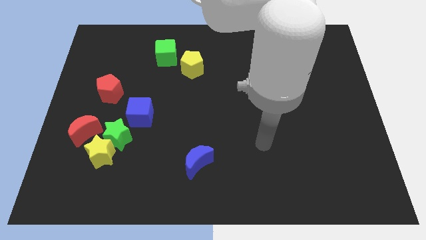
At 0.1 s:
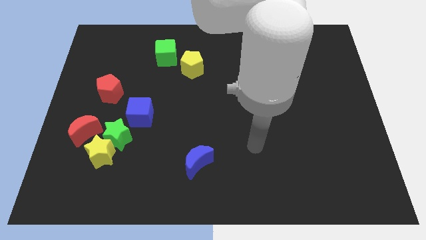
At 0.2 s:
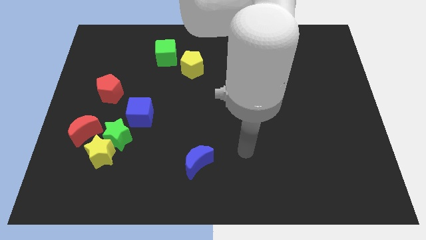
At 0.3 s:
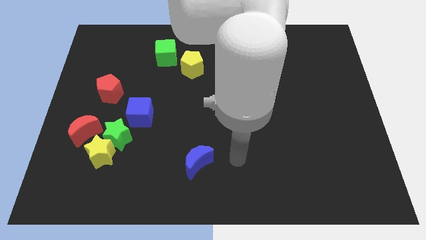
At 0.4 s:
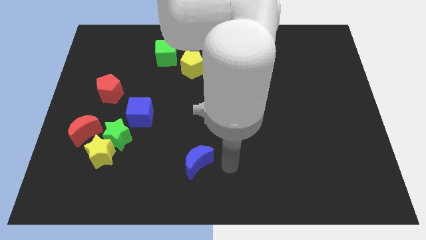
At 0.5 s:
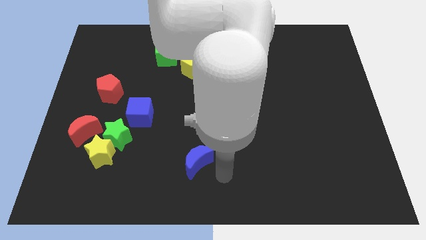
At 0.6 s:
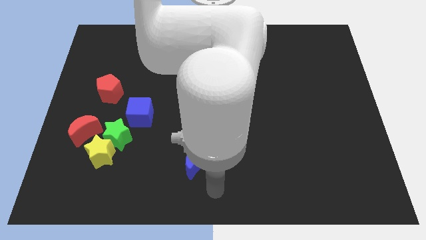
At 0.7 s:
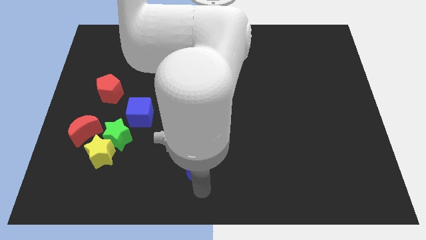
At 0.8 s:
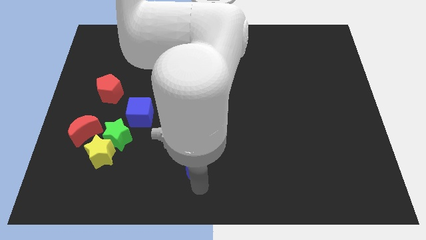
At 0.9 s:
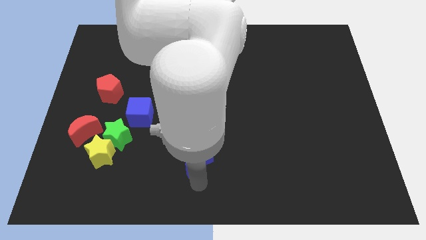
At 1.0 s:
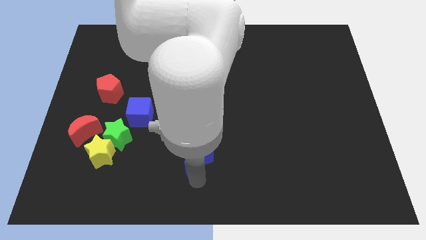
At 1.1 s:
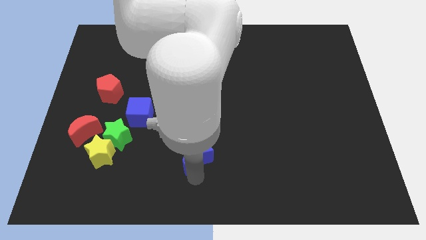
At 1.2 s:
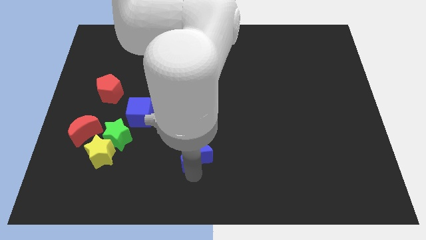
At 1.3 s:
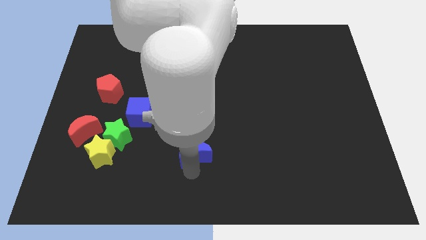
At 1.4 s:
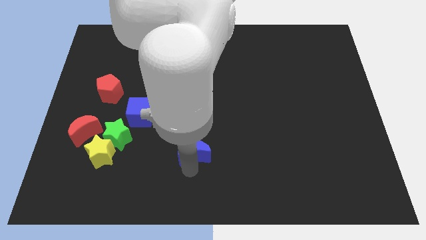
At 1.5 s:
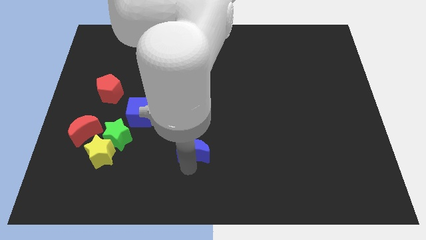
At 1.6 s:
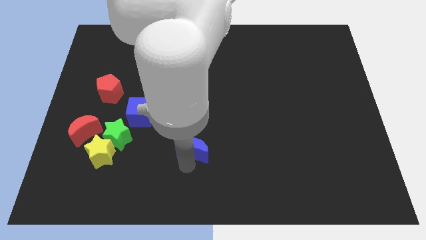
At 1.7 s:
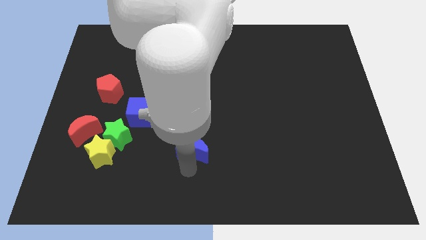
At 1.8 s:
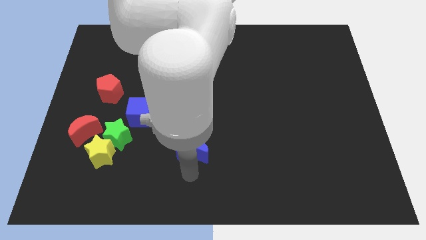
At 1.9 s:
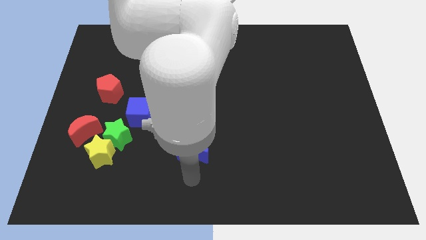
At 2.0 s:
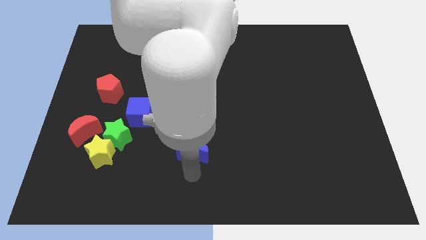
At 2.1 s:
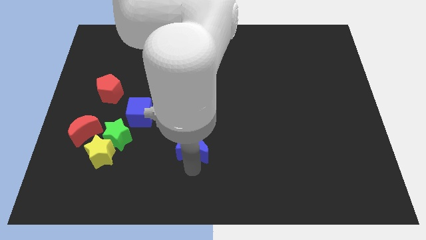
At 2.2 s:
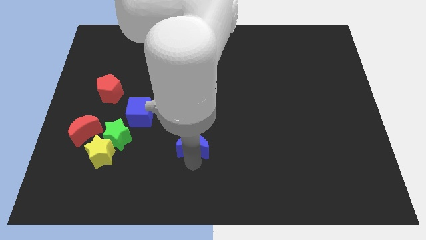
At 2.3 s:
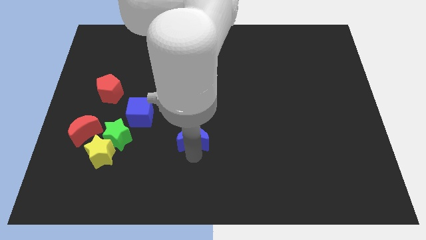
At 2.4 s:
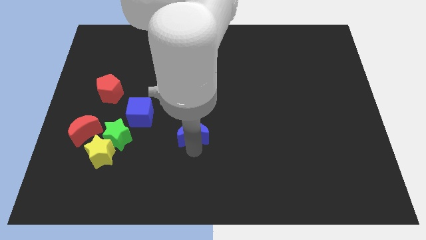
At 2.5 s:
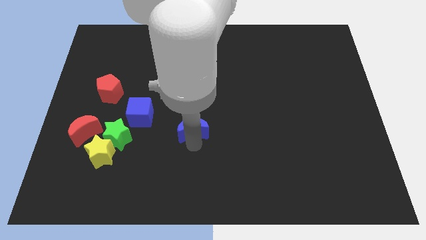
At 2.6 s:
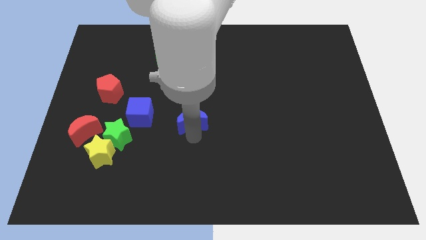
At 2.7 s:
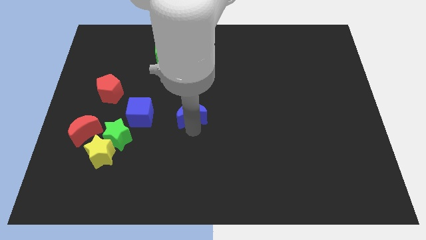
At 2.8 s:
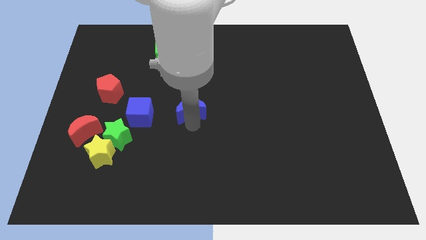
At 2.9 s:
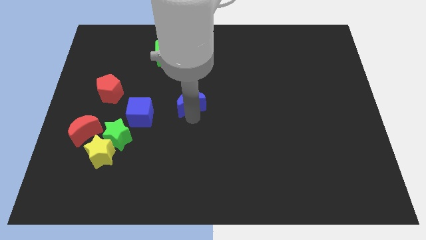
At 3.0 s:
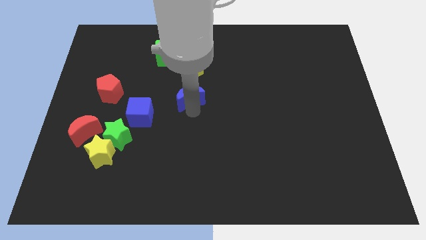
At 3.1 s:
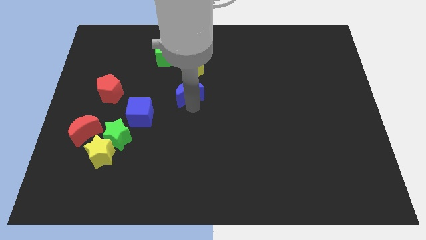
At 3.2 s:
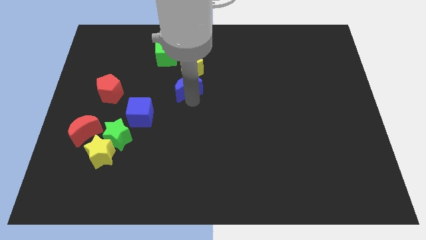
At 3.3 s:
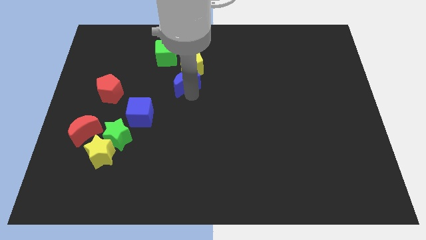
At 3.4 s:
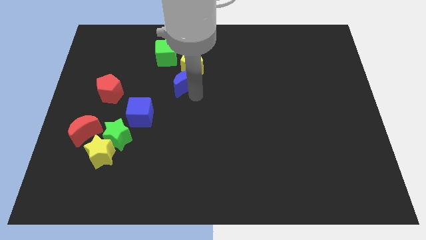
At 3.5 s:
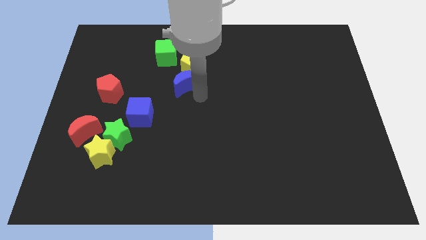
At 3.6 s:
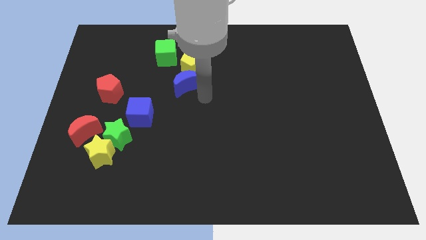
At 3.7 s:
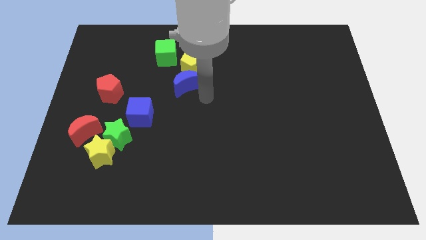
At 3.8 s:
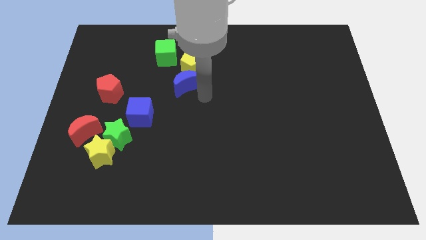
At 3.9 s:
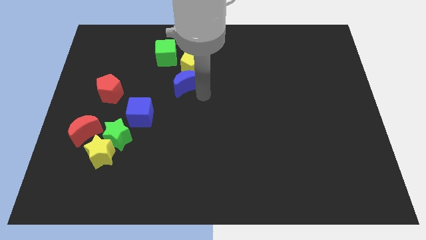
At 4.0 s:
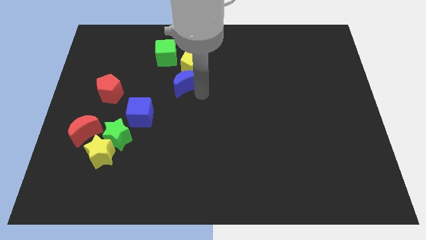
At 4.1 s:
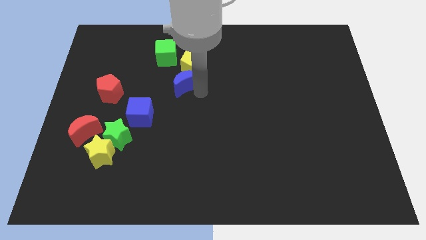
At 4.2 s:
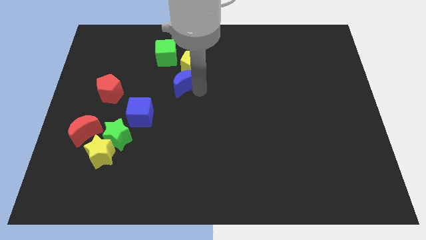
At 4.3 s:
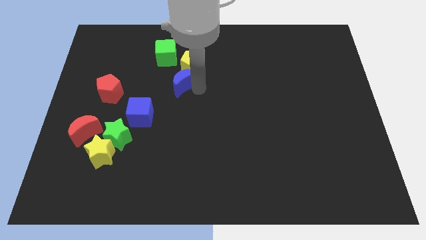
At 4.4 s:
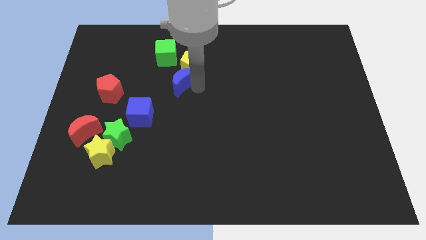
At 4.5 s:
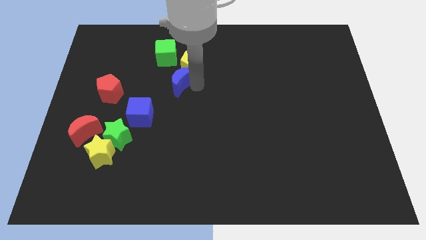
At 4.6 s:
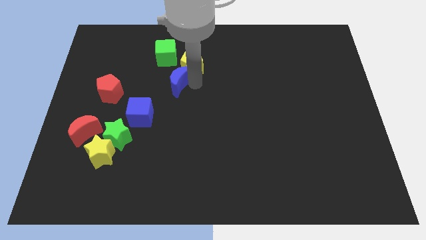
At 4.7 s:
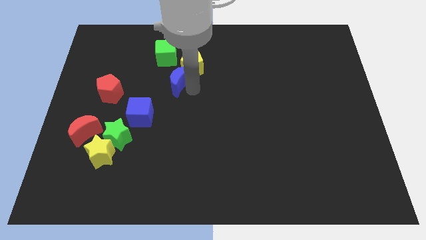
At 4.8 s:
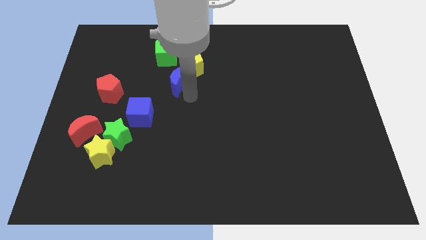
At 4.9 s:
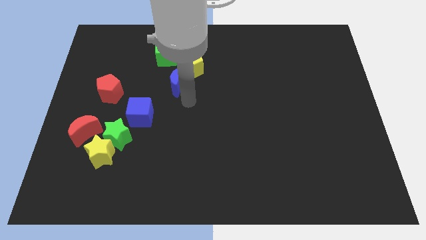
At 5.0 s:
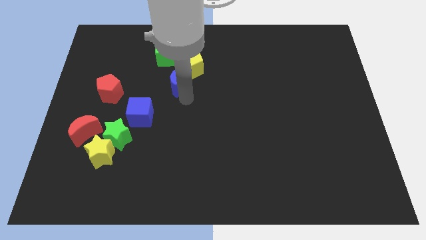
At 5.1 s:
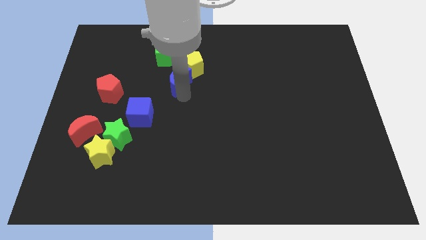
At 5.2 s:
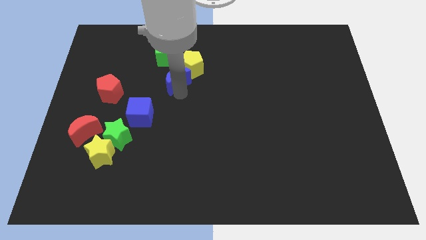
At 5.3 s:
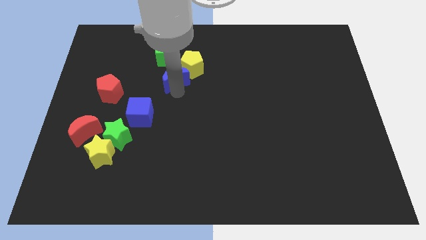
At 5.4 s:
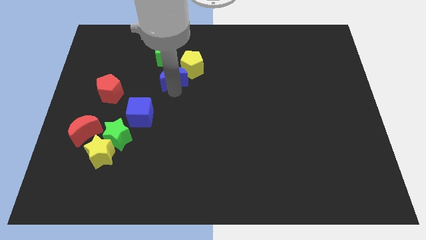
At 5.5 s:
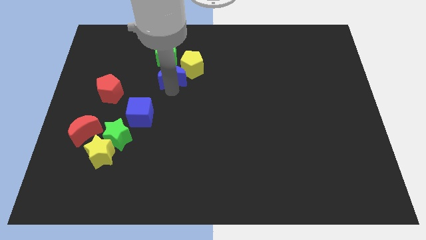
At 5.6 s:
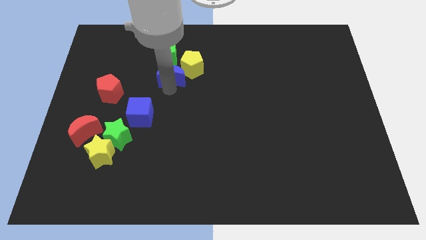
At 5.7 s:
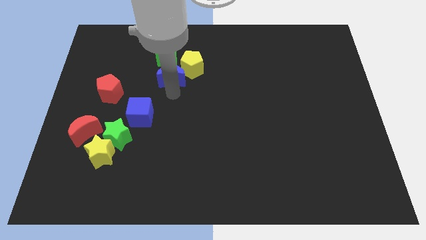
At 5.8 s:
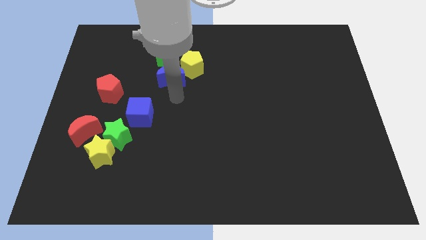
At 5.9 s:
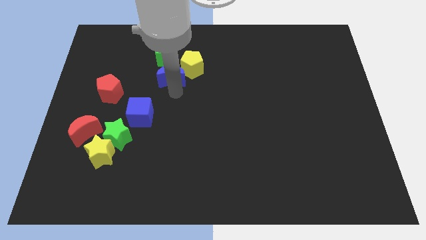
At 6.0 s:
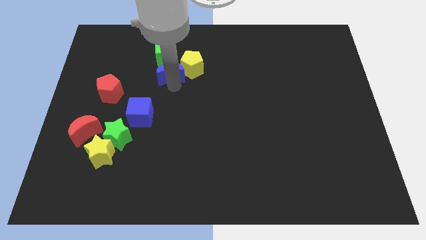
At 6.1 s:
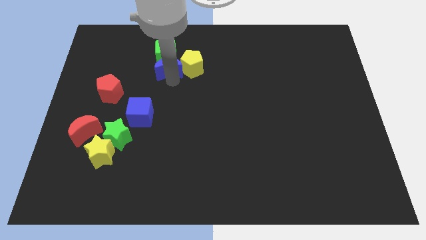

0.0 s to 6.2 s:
push the blue moon to the green cube
